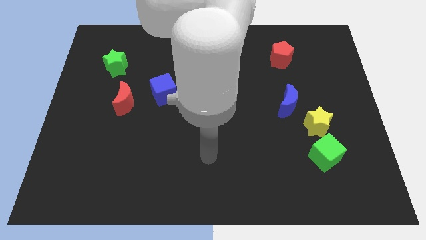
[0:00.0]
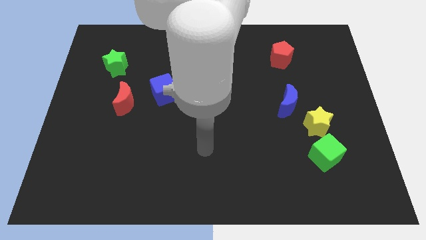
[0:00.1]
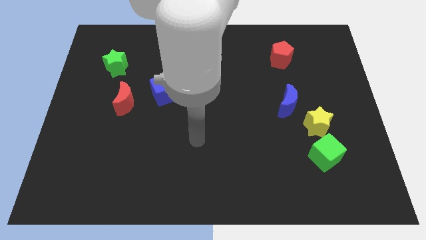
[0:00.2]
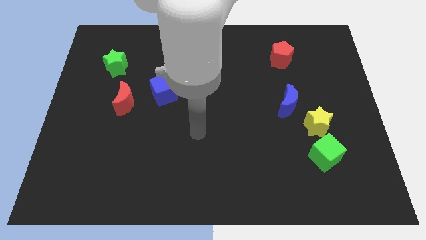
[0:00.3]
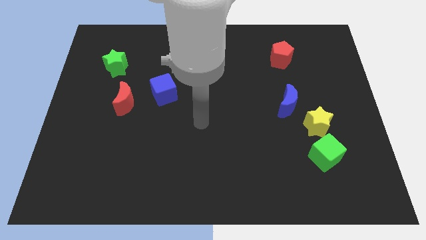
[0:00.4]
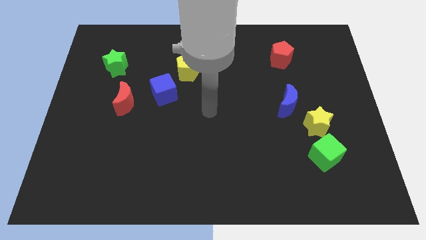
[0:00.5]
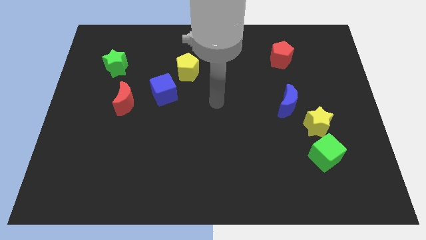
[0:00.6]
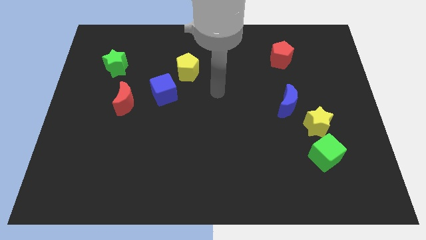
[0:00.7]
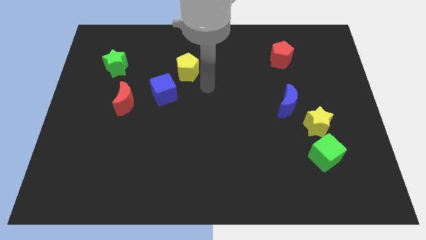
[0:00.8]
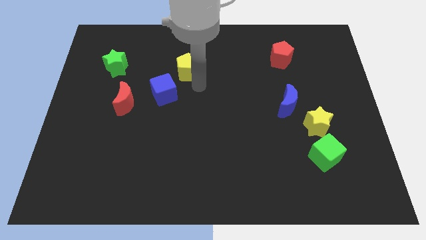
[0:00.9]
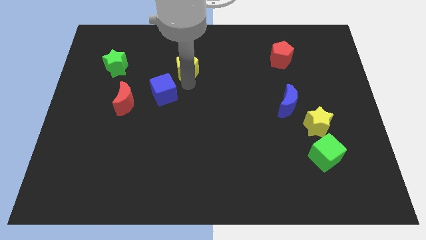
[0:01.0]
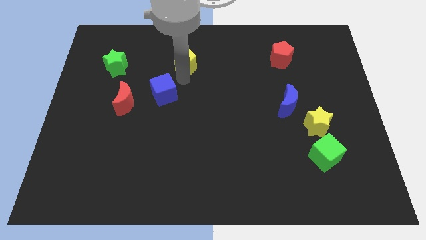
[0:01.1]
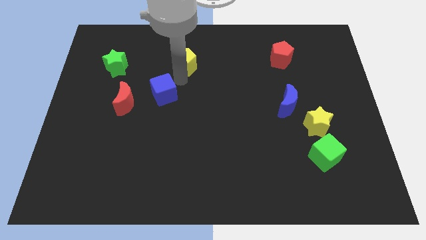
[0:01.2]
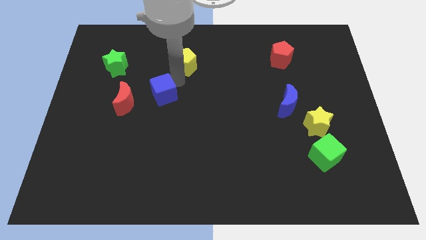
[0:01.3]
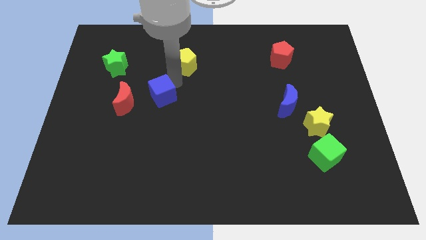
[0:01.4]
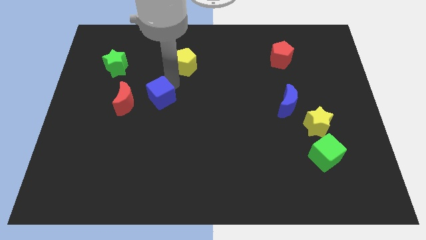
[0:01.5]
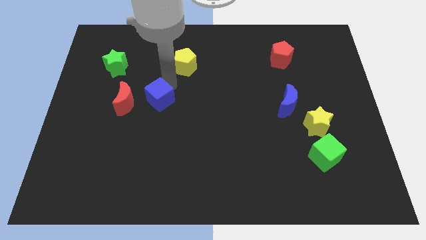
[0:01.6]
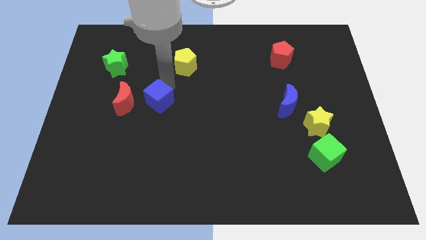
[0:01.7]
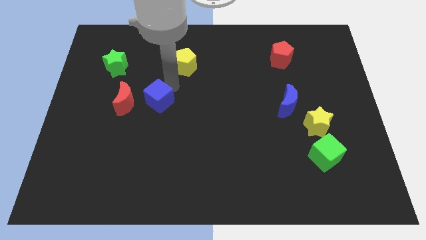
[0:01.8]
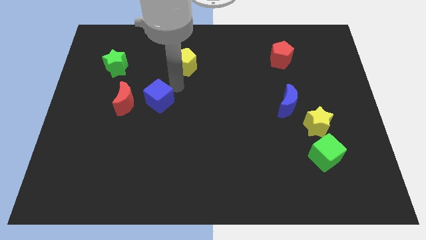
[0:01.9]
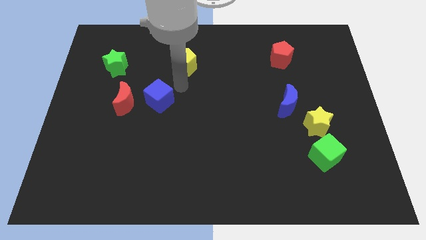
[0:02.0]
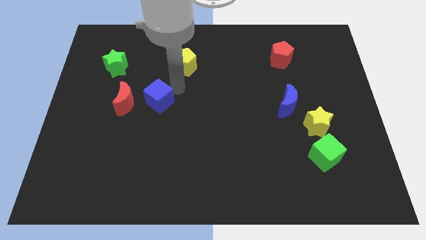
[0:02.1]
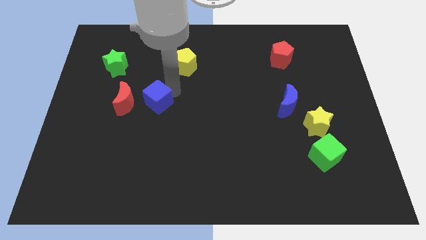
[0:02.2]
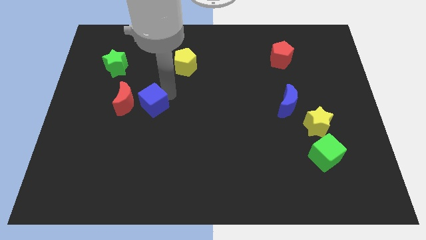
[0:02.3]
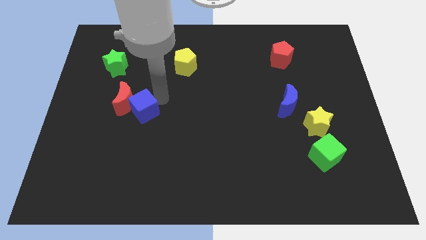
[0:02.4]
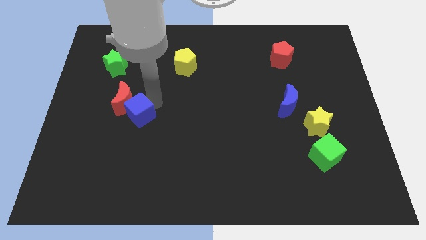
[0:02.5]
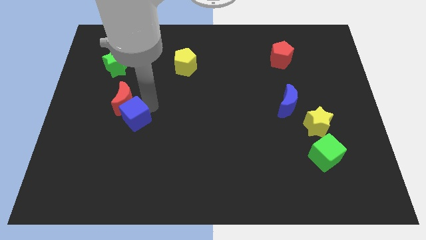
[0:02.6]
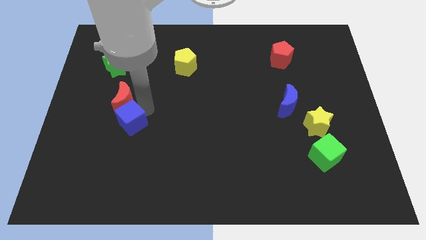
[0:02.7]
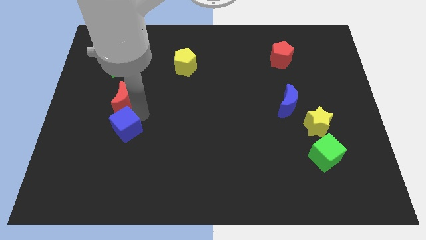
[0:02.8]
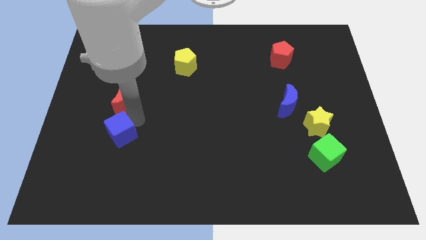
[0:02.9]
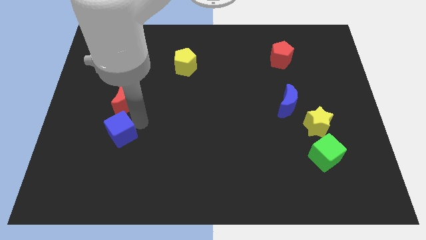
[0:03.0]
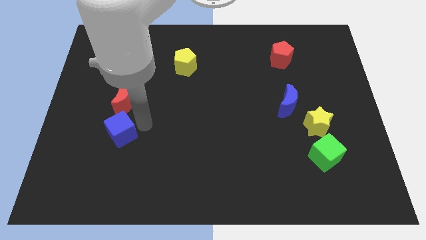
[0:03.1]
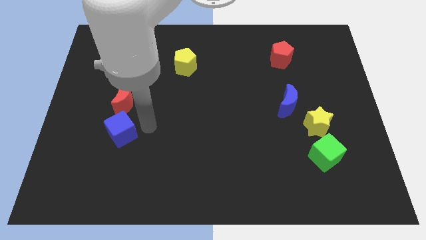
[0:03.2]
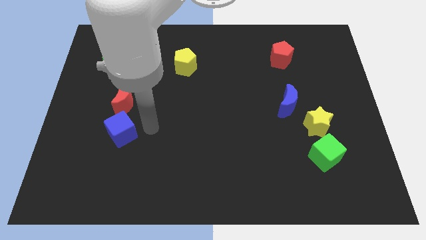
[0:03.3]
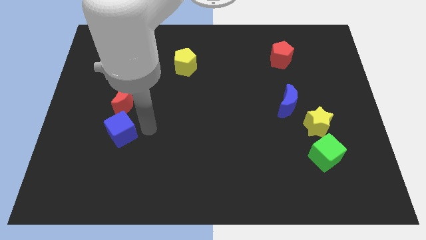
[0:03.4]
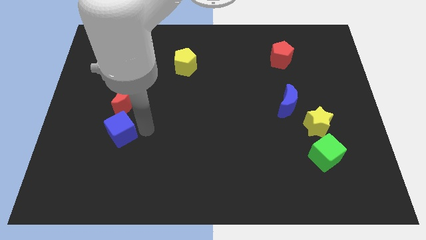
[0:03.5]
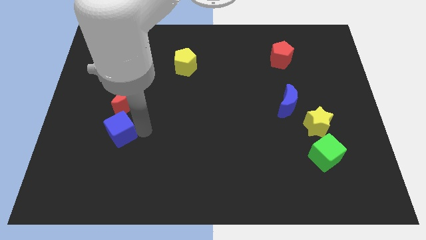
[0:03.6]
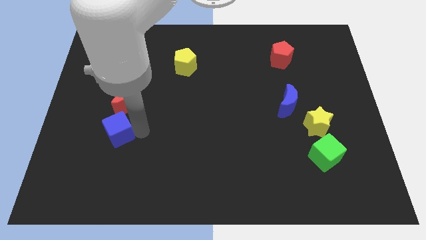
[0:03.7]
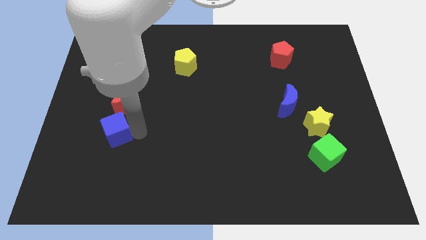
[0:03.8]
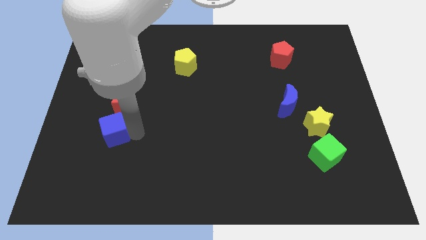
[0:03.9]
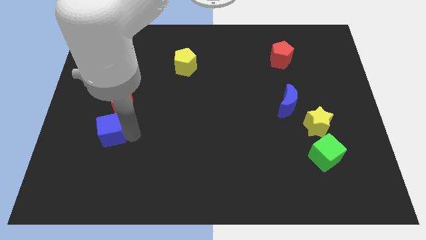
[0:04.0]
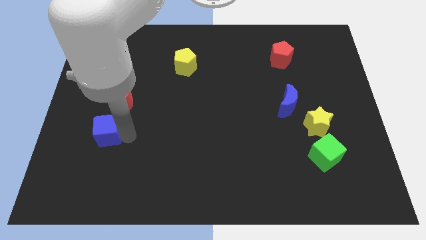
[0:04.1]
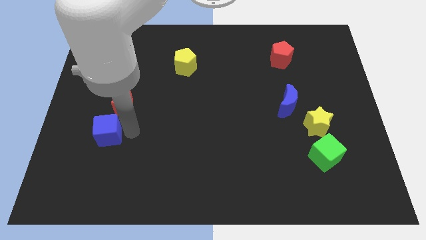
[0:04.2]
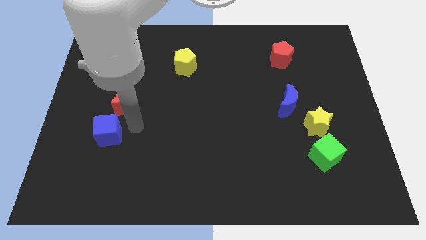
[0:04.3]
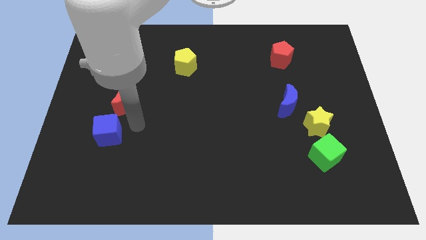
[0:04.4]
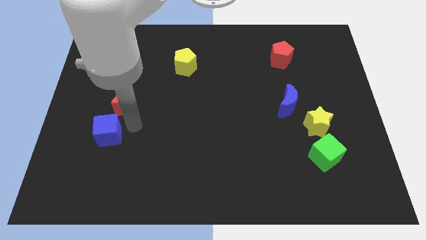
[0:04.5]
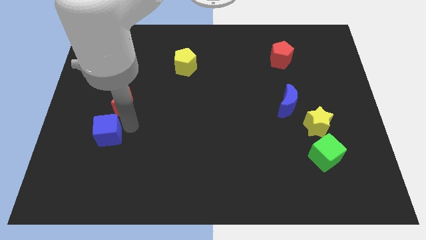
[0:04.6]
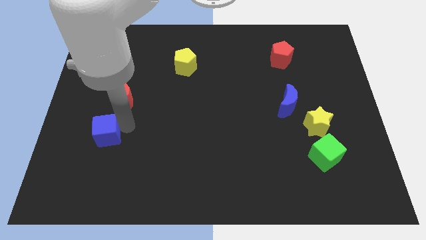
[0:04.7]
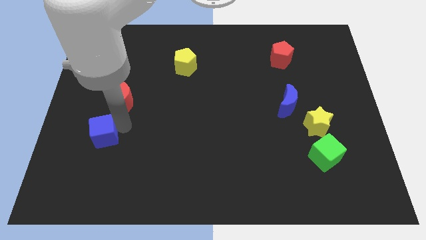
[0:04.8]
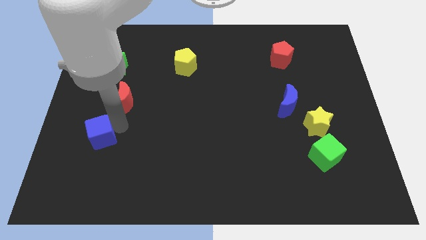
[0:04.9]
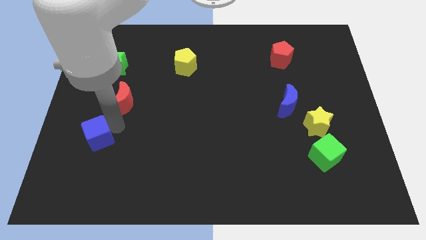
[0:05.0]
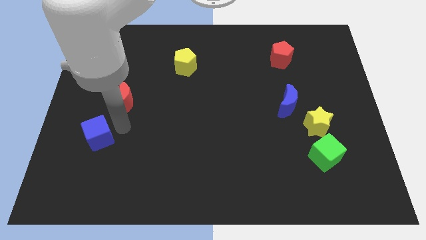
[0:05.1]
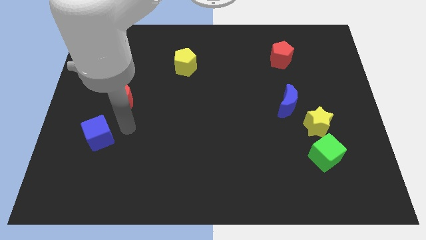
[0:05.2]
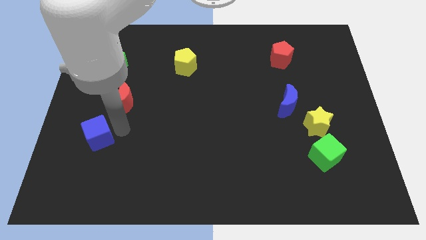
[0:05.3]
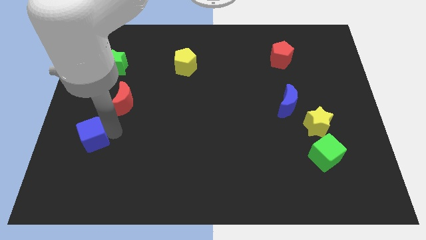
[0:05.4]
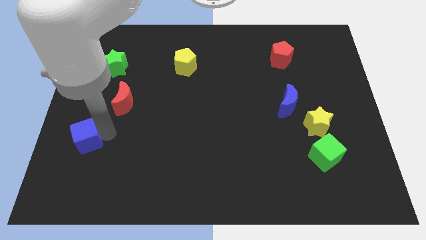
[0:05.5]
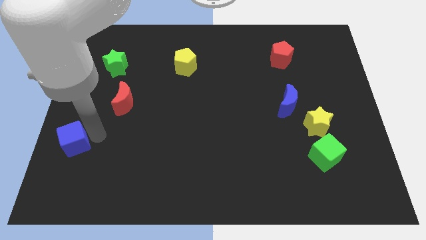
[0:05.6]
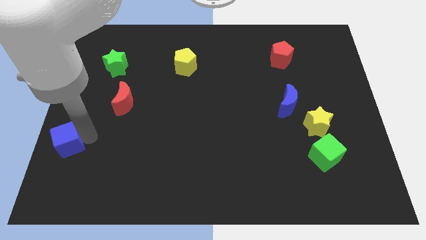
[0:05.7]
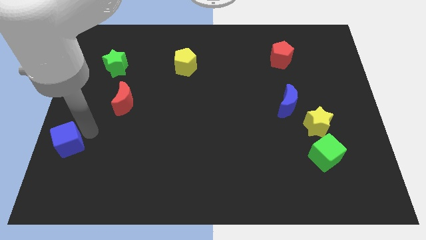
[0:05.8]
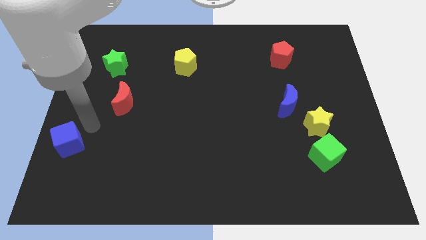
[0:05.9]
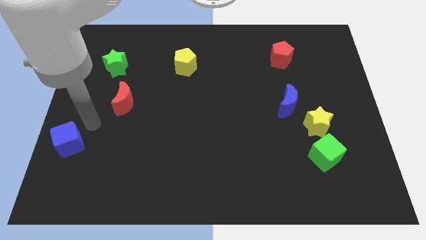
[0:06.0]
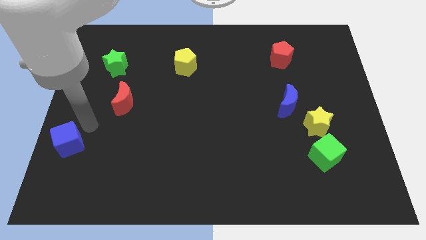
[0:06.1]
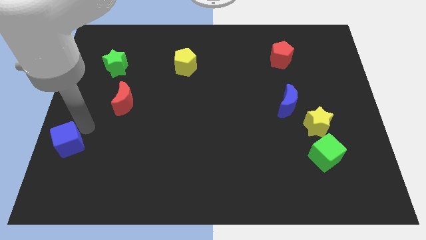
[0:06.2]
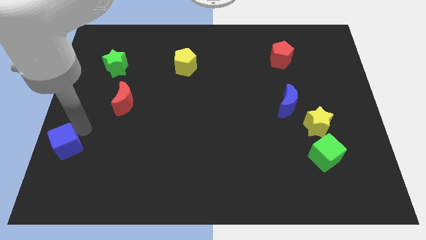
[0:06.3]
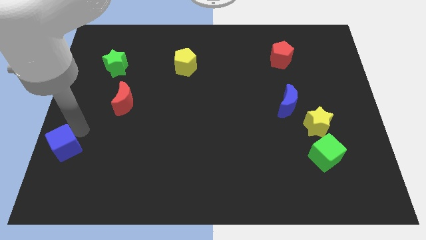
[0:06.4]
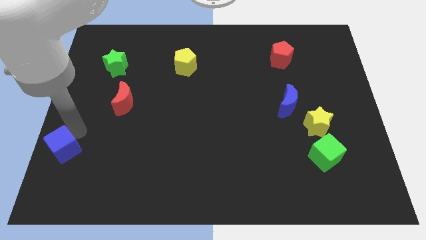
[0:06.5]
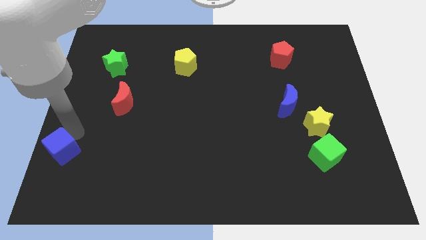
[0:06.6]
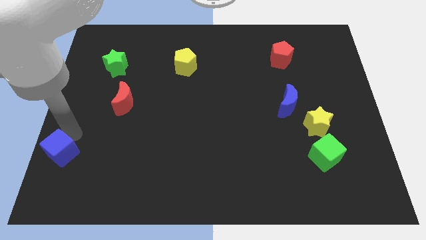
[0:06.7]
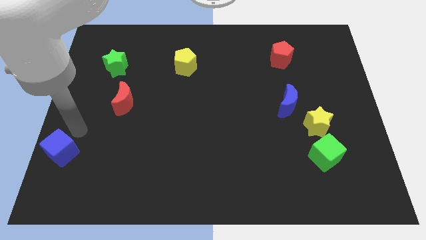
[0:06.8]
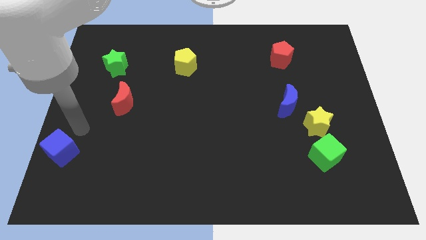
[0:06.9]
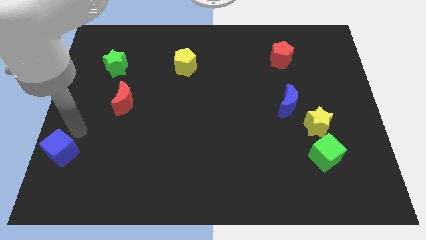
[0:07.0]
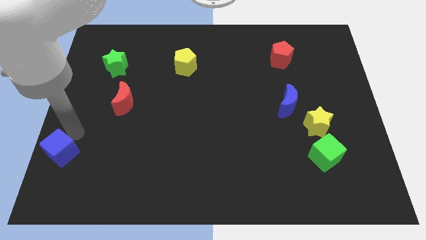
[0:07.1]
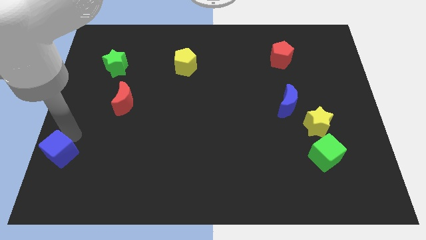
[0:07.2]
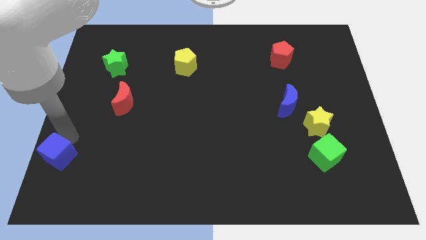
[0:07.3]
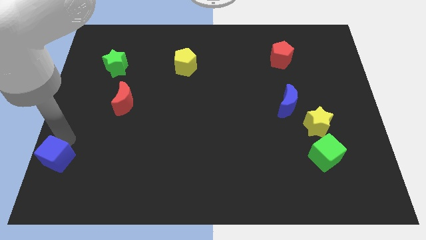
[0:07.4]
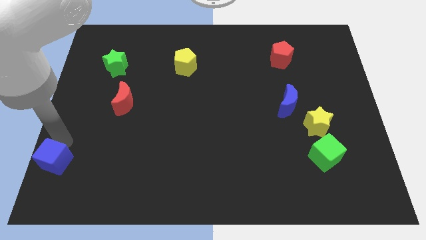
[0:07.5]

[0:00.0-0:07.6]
move the blue cube to the bottom left of the board
